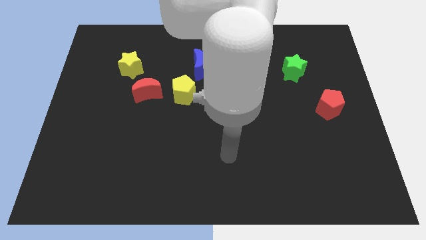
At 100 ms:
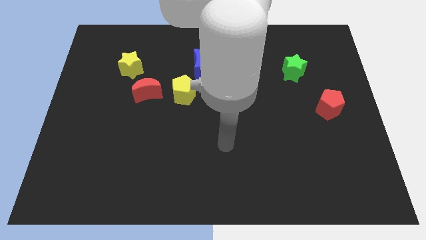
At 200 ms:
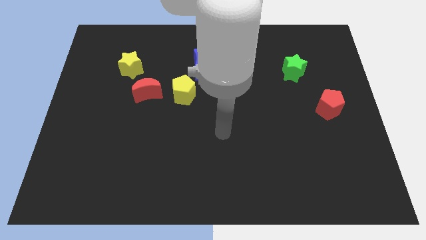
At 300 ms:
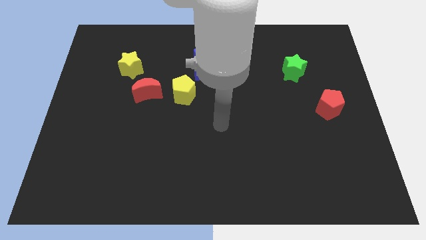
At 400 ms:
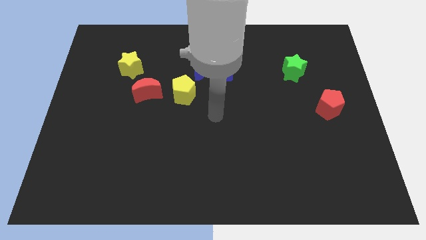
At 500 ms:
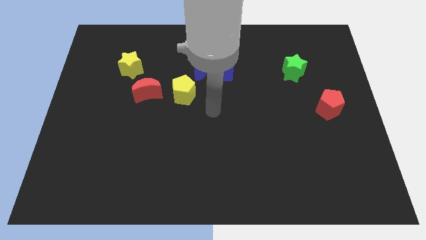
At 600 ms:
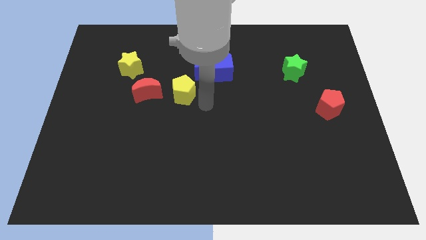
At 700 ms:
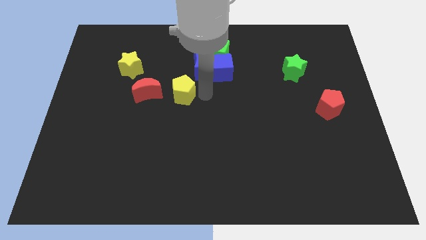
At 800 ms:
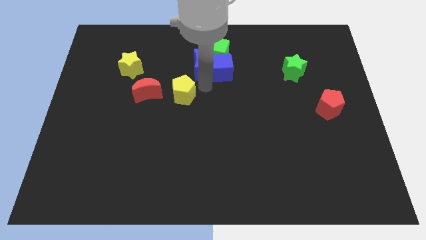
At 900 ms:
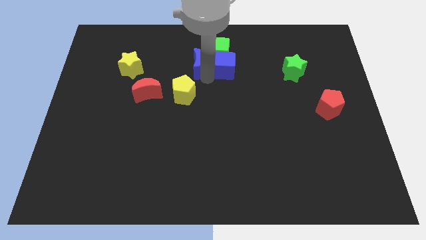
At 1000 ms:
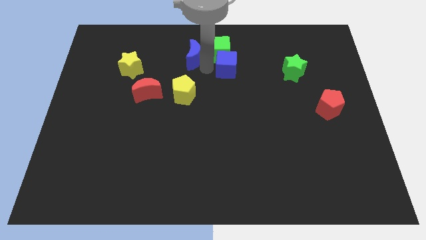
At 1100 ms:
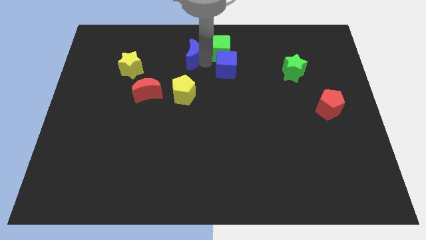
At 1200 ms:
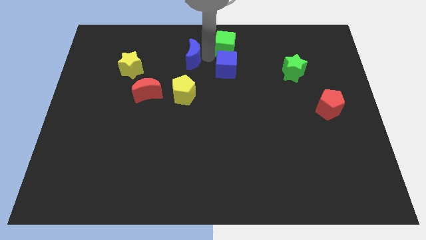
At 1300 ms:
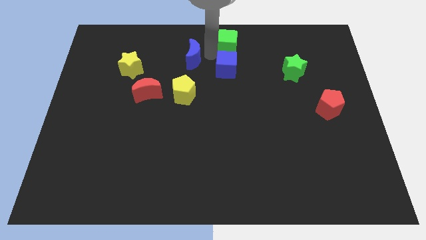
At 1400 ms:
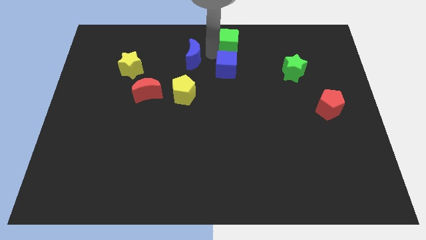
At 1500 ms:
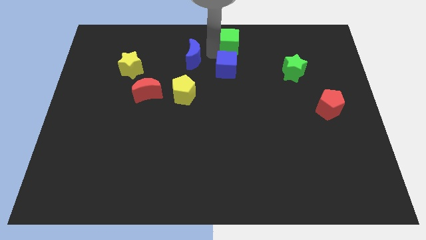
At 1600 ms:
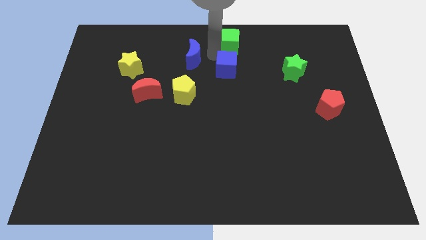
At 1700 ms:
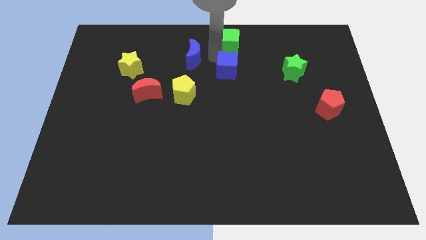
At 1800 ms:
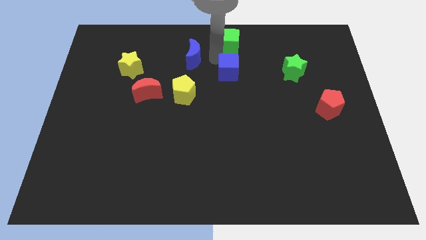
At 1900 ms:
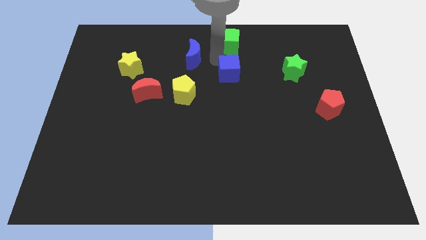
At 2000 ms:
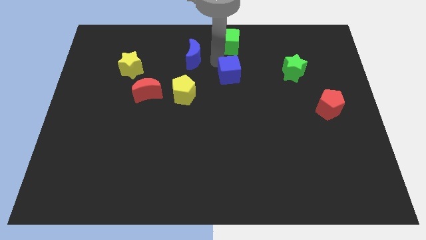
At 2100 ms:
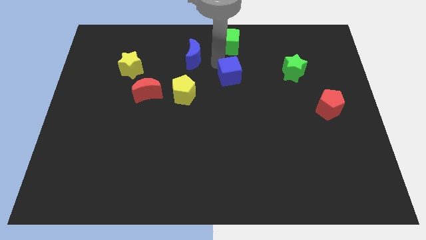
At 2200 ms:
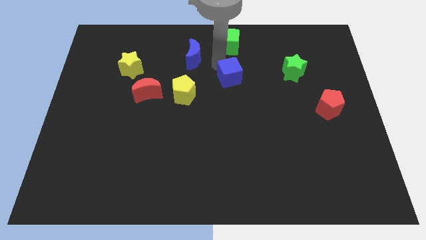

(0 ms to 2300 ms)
move the blue cube away from the blue moon and green cube

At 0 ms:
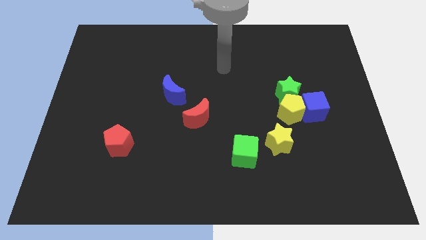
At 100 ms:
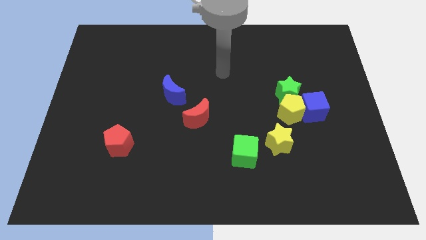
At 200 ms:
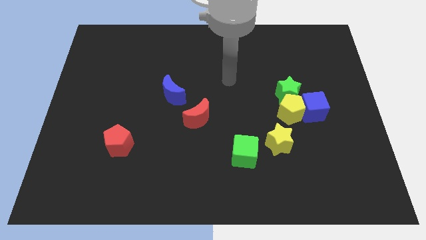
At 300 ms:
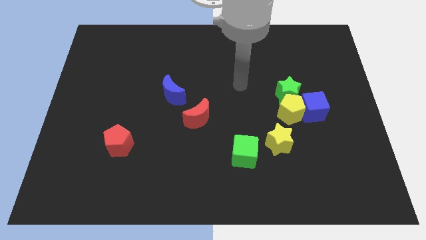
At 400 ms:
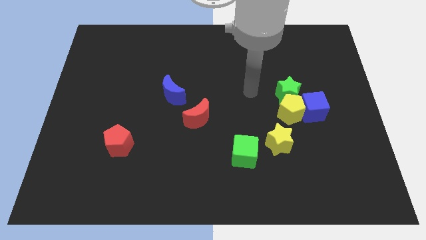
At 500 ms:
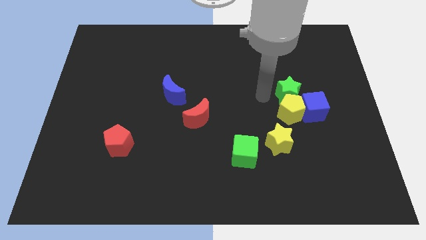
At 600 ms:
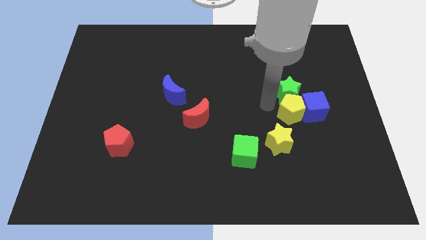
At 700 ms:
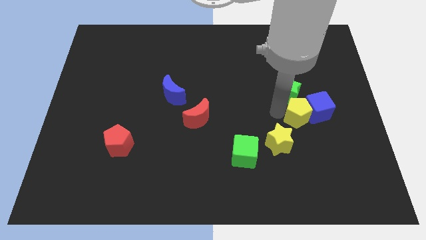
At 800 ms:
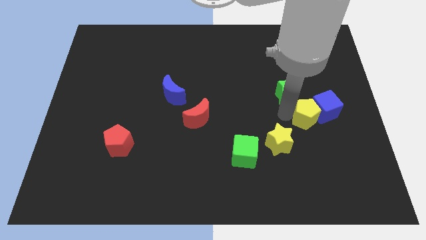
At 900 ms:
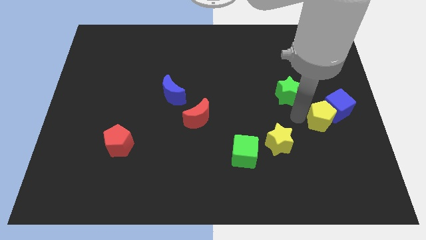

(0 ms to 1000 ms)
separate the green star from the yellow pentagon and blue cube

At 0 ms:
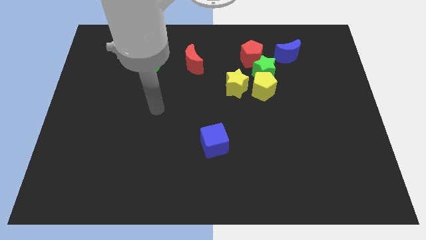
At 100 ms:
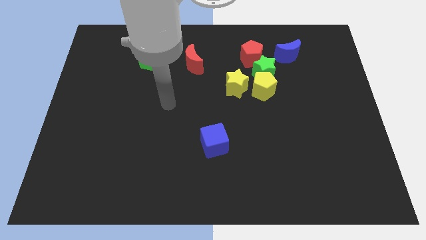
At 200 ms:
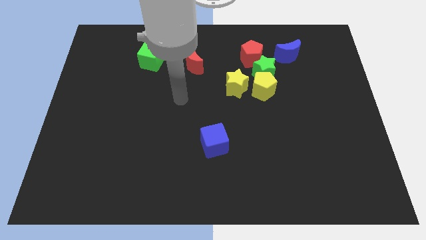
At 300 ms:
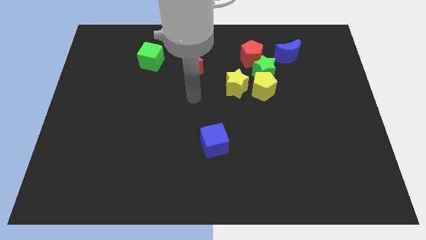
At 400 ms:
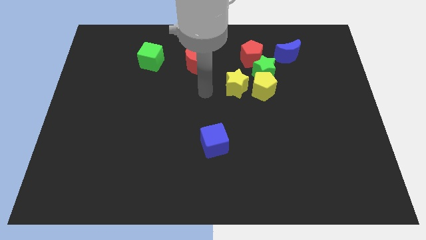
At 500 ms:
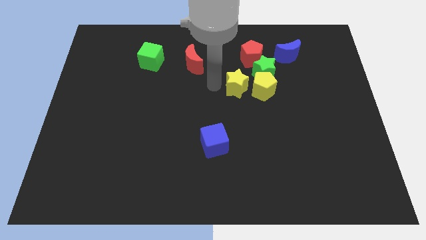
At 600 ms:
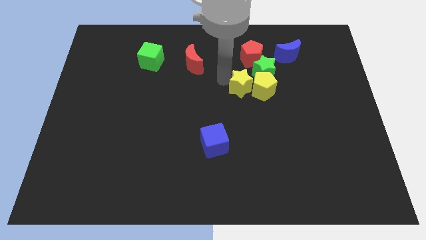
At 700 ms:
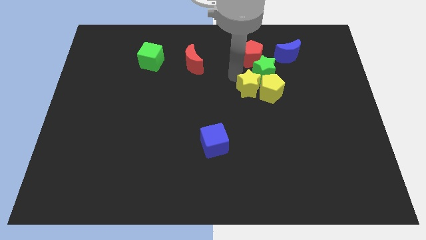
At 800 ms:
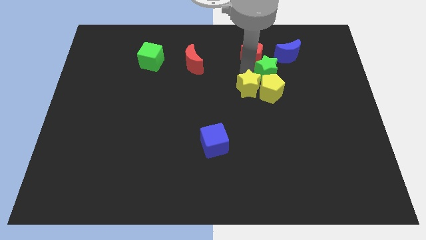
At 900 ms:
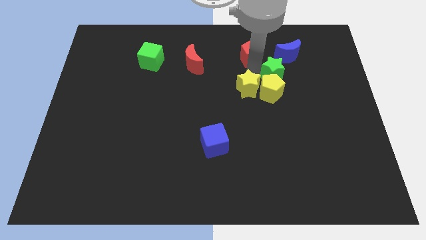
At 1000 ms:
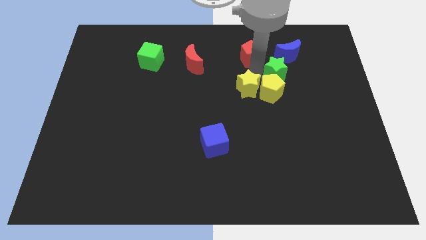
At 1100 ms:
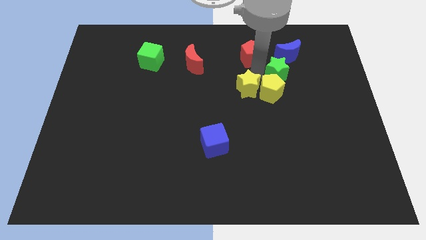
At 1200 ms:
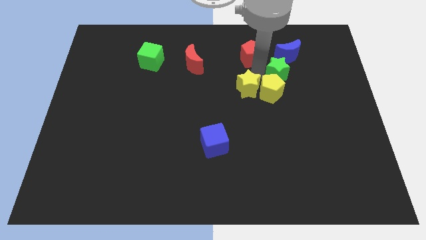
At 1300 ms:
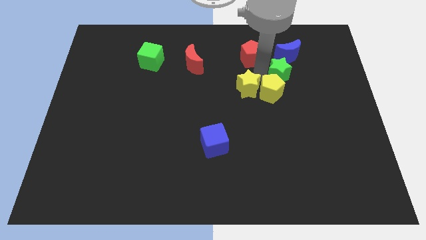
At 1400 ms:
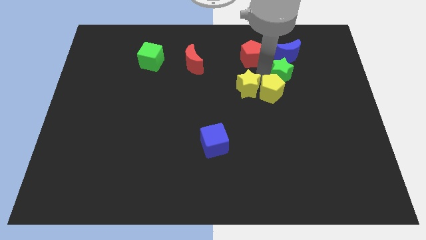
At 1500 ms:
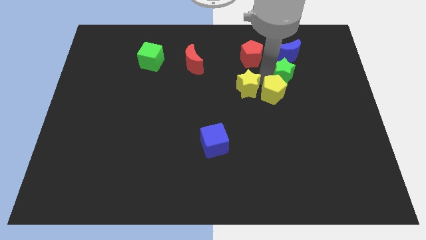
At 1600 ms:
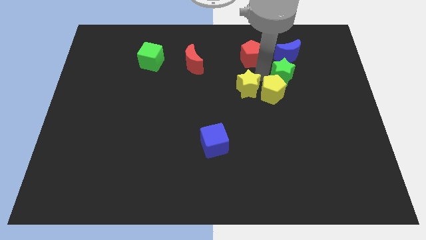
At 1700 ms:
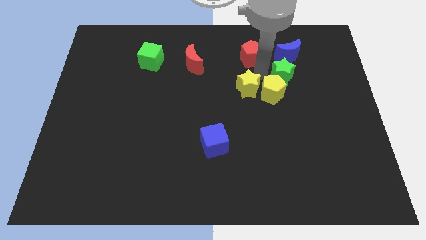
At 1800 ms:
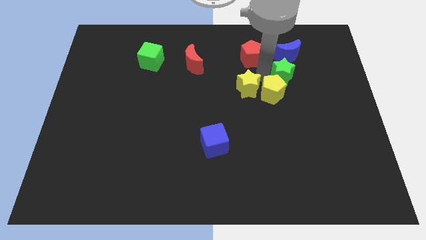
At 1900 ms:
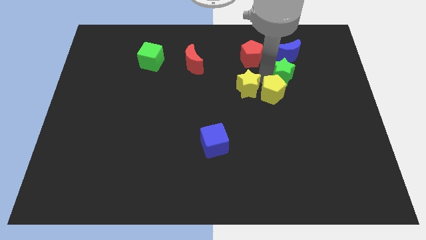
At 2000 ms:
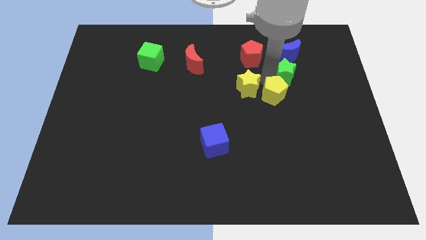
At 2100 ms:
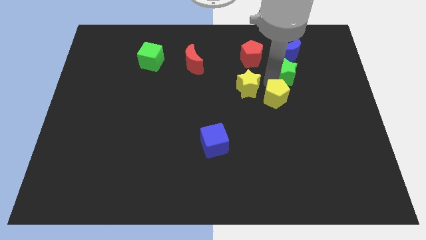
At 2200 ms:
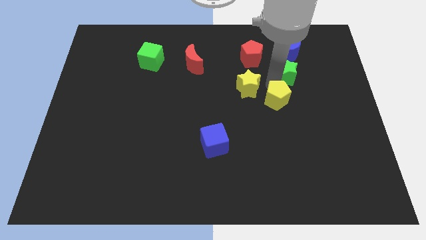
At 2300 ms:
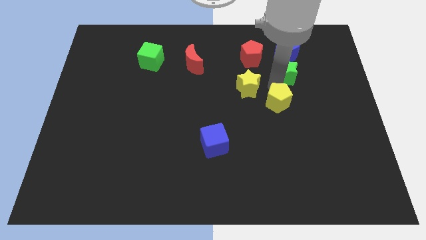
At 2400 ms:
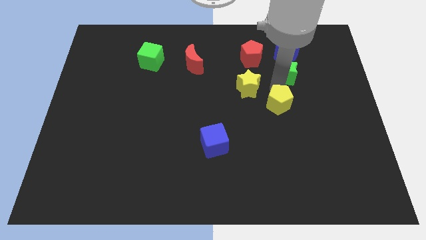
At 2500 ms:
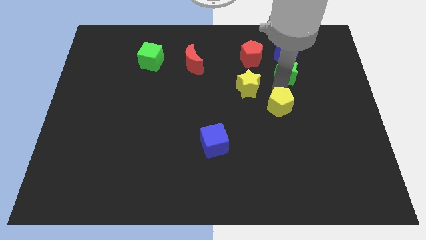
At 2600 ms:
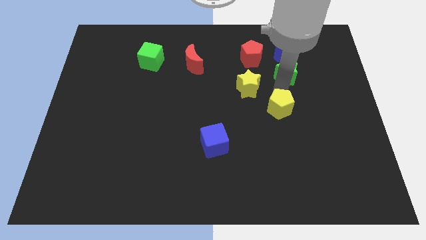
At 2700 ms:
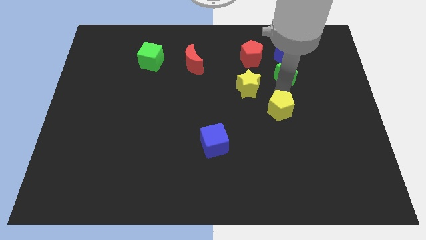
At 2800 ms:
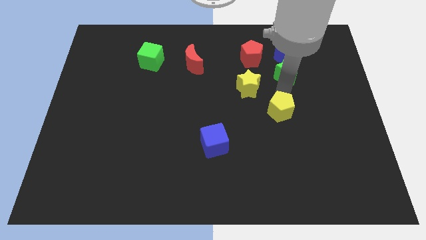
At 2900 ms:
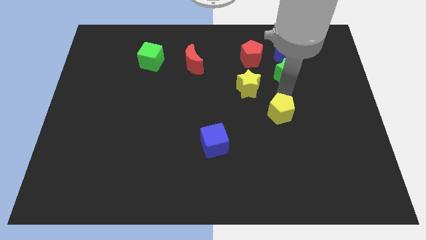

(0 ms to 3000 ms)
pull the yellow pentagon apart from the green star and yellow star

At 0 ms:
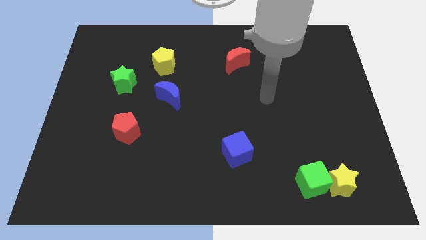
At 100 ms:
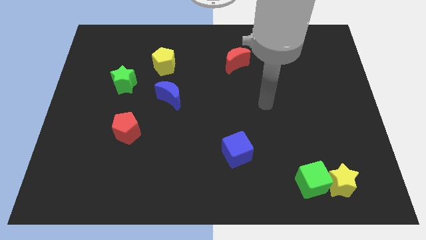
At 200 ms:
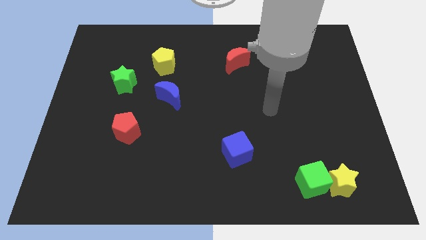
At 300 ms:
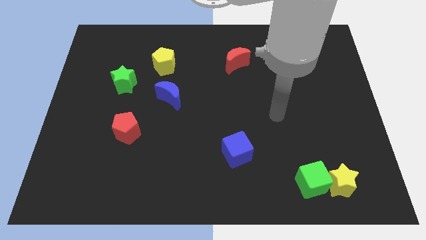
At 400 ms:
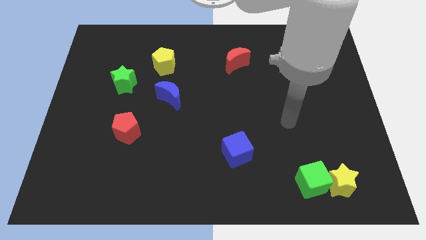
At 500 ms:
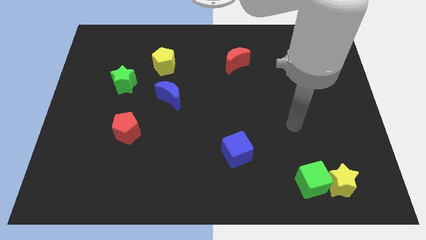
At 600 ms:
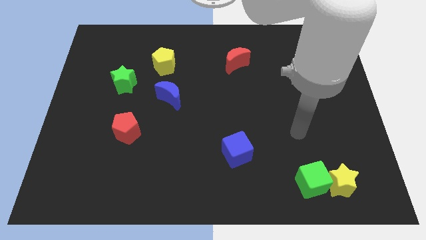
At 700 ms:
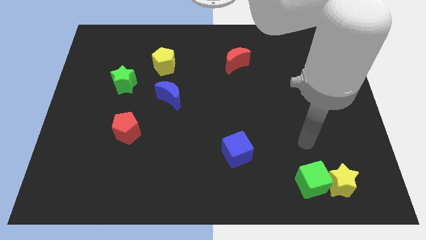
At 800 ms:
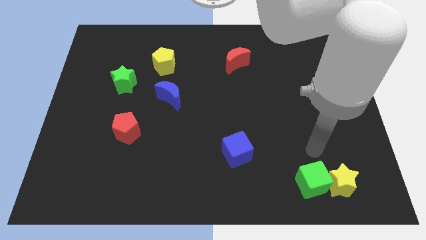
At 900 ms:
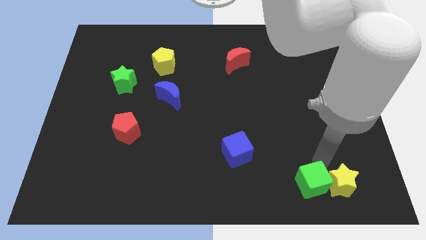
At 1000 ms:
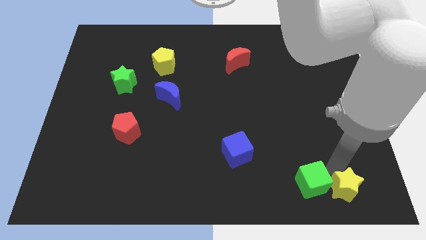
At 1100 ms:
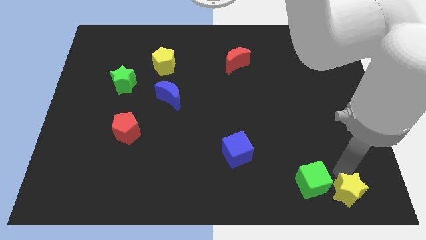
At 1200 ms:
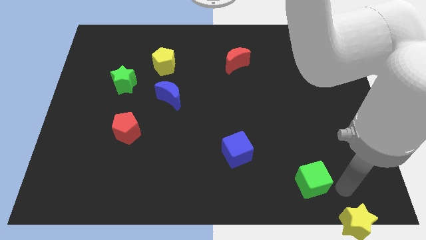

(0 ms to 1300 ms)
move the green cube away from the yellow star

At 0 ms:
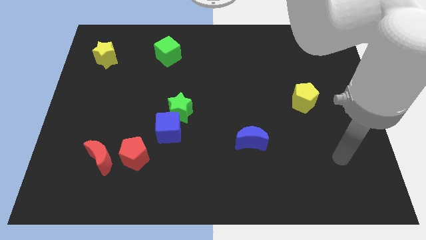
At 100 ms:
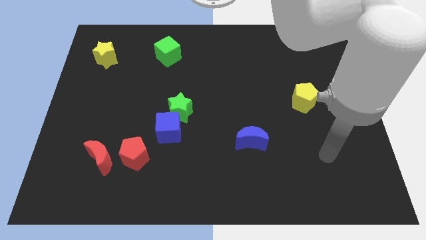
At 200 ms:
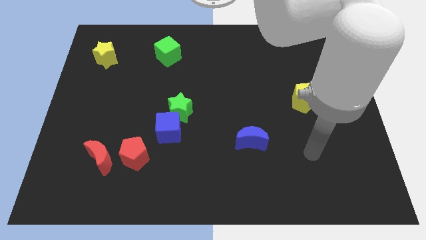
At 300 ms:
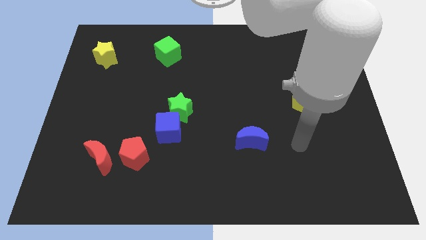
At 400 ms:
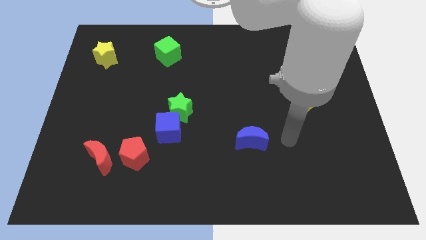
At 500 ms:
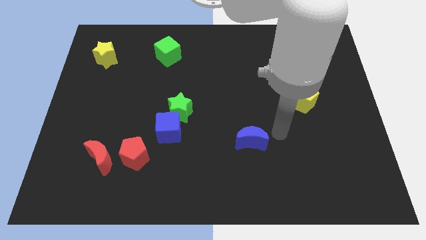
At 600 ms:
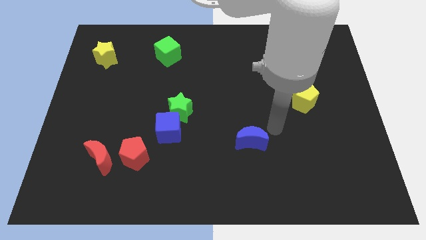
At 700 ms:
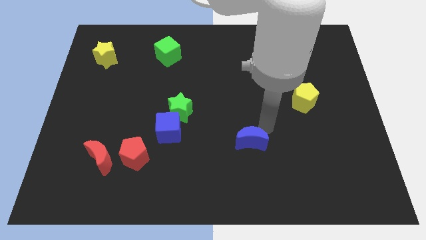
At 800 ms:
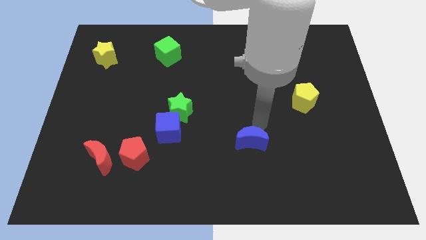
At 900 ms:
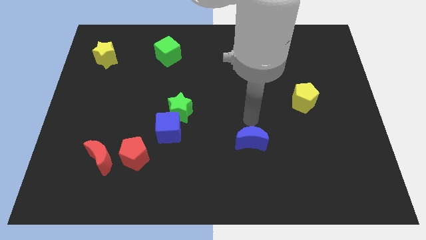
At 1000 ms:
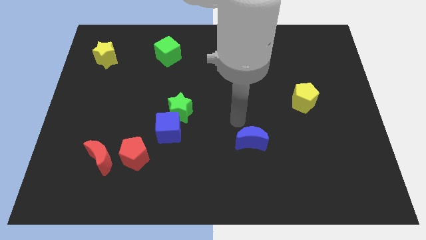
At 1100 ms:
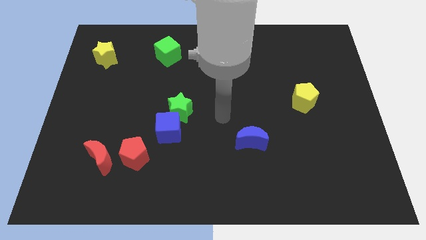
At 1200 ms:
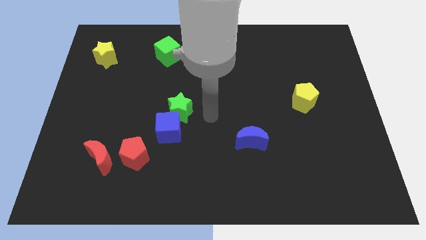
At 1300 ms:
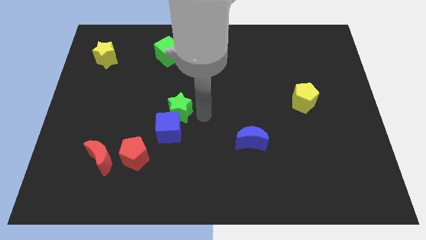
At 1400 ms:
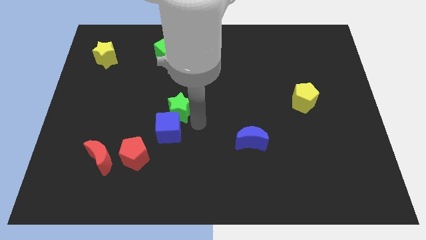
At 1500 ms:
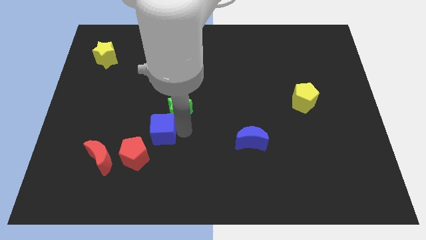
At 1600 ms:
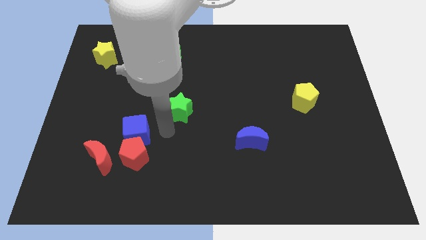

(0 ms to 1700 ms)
separate the green star from the blue cube
